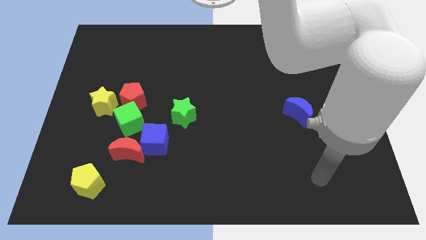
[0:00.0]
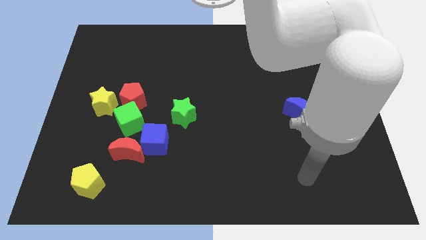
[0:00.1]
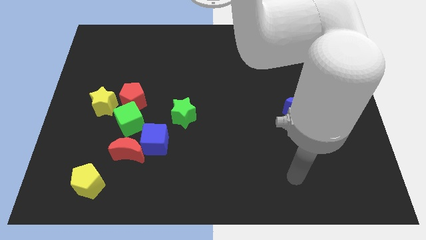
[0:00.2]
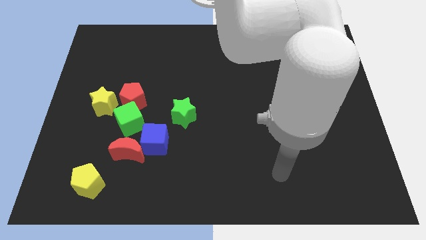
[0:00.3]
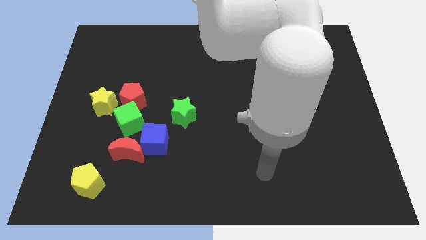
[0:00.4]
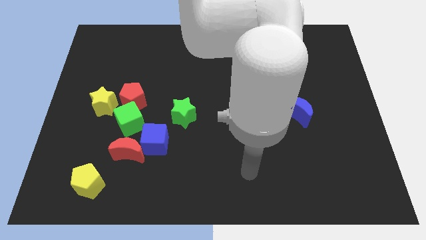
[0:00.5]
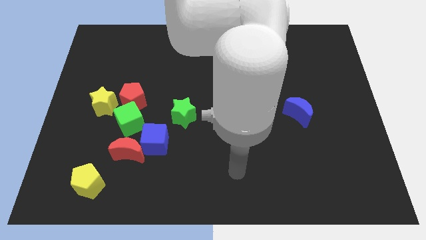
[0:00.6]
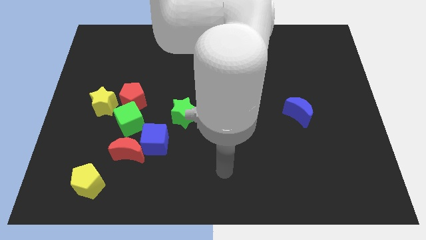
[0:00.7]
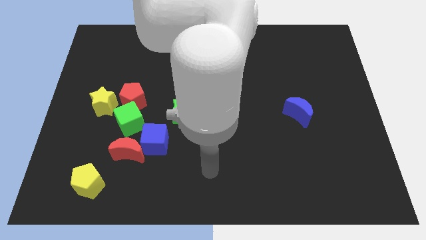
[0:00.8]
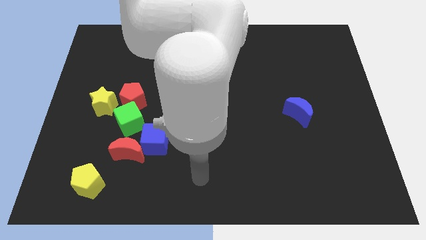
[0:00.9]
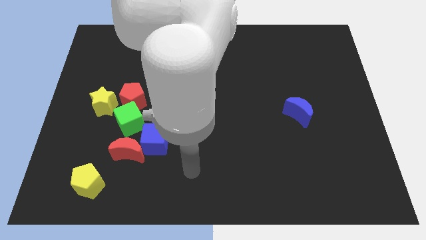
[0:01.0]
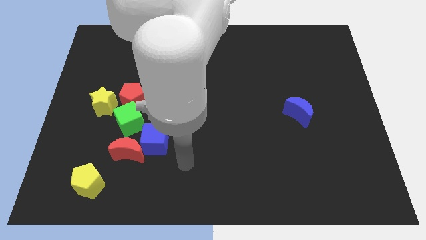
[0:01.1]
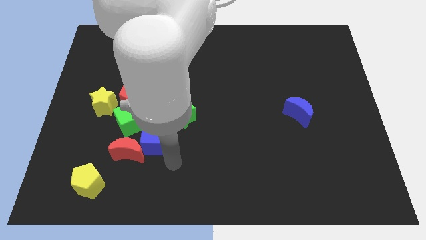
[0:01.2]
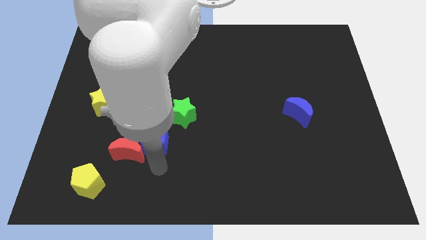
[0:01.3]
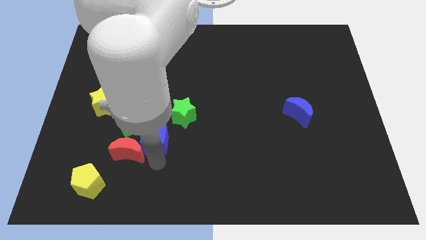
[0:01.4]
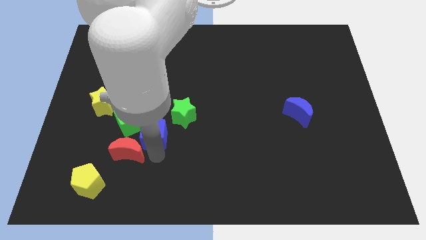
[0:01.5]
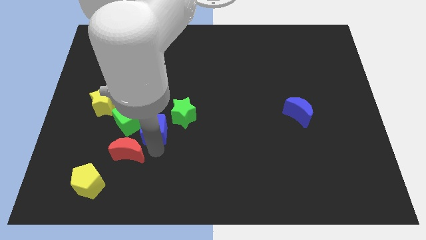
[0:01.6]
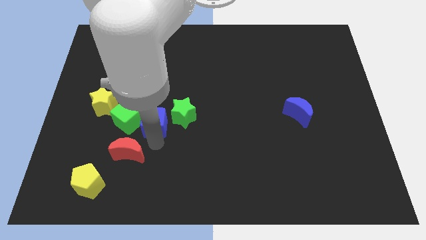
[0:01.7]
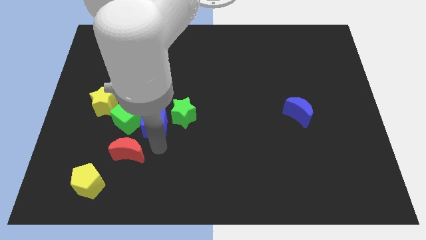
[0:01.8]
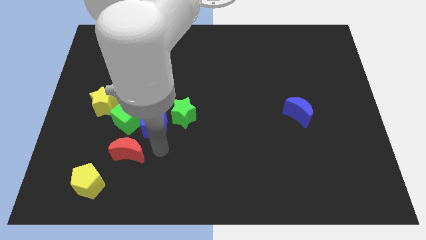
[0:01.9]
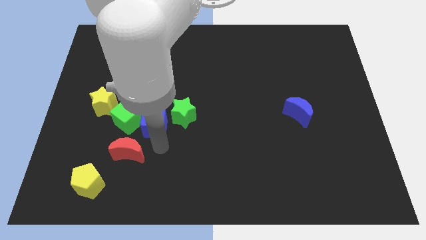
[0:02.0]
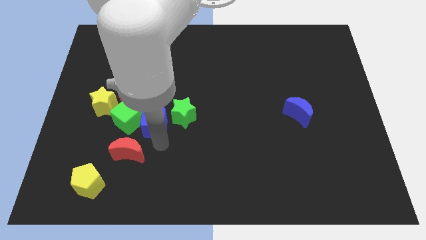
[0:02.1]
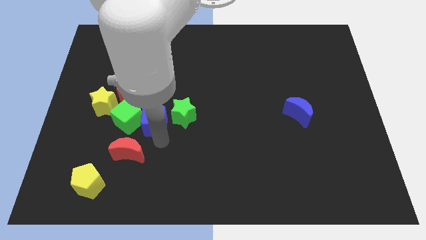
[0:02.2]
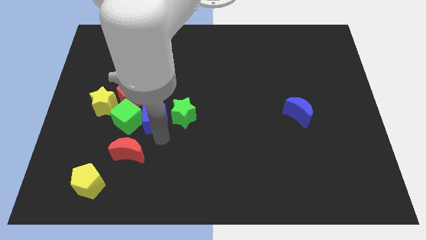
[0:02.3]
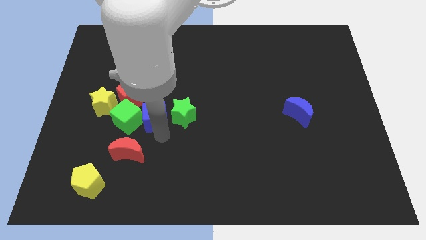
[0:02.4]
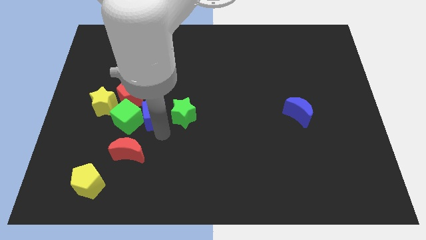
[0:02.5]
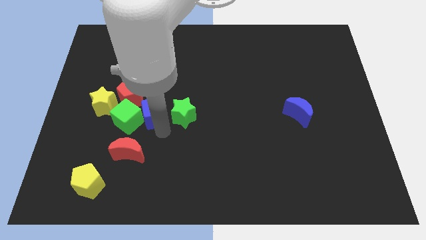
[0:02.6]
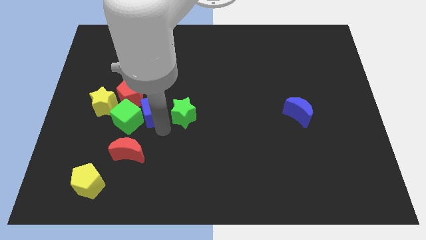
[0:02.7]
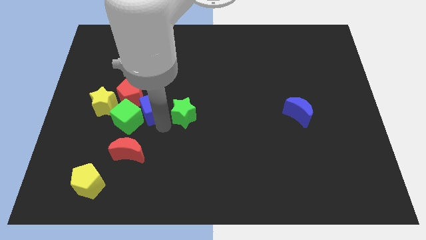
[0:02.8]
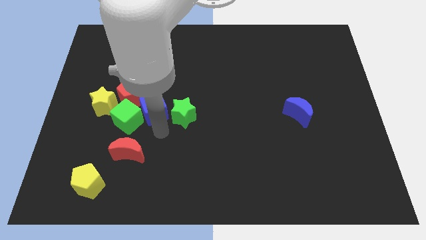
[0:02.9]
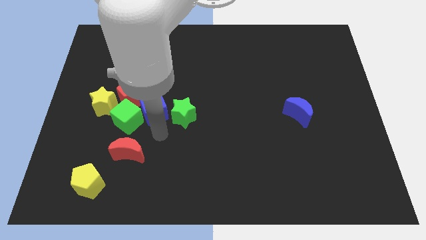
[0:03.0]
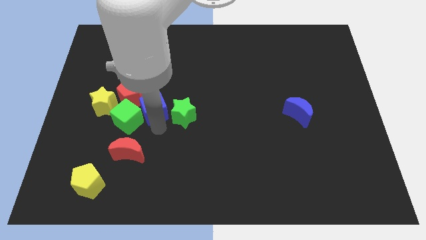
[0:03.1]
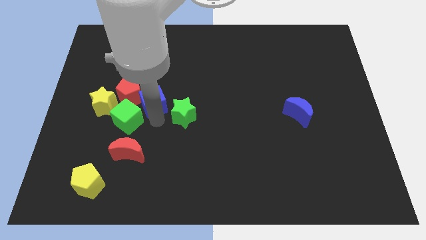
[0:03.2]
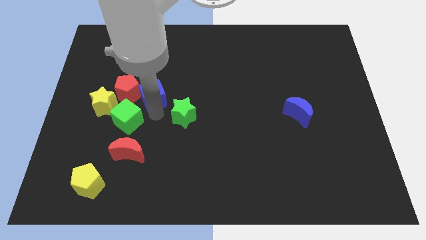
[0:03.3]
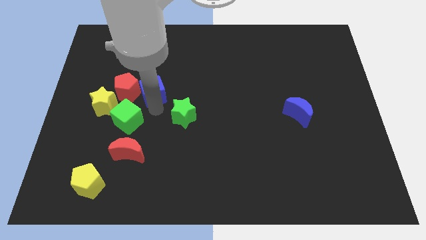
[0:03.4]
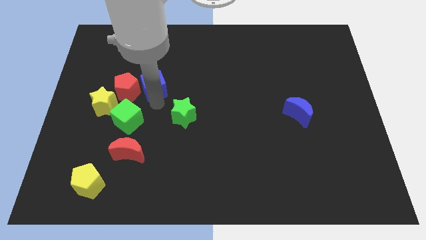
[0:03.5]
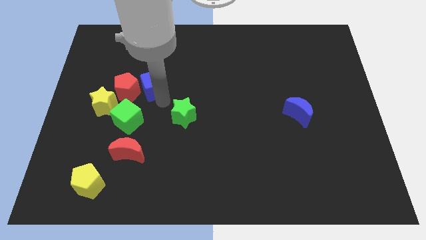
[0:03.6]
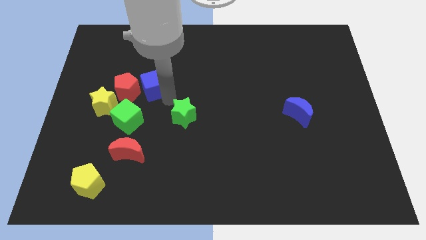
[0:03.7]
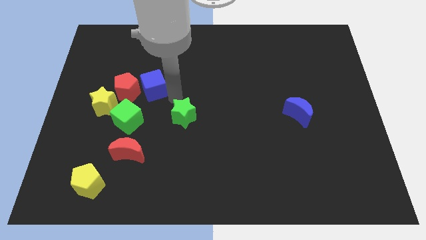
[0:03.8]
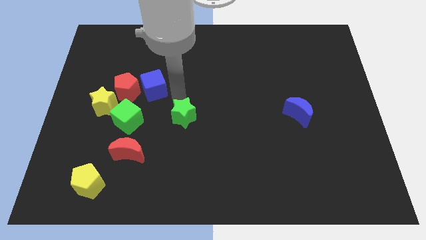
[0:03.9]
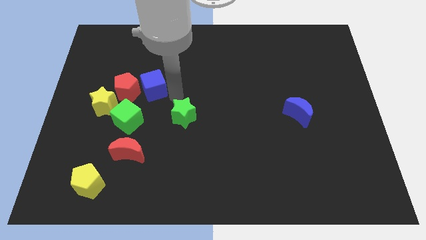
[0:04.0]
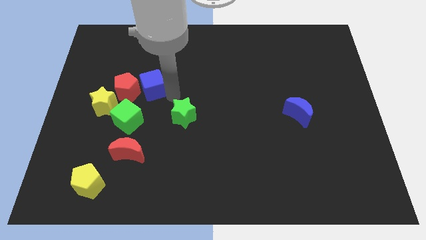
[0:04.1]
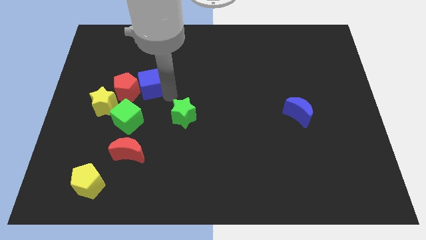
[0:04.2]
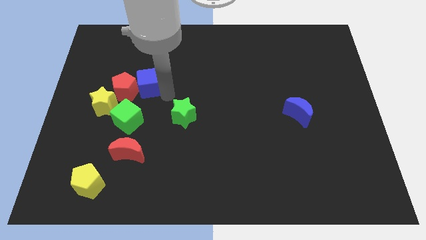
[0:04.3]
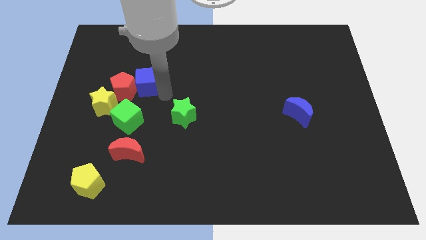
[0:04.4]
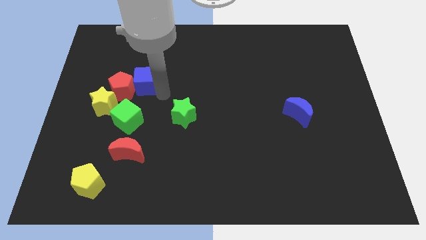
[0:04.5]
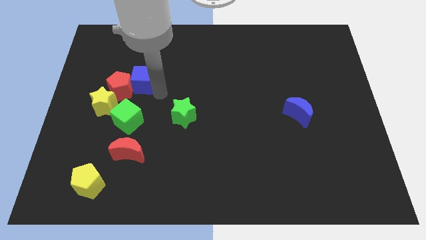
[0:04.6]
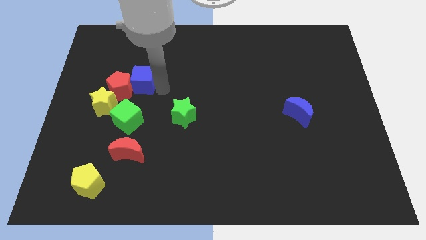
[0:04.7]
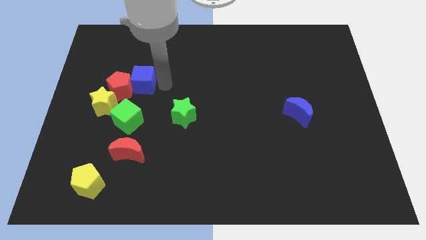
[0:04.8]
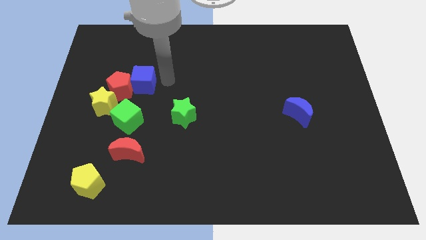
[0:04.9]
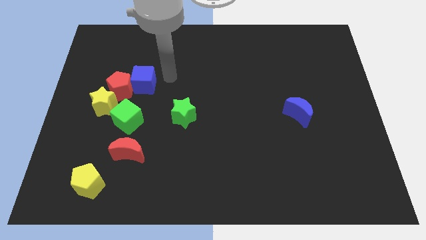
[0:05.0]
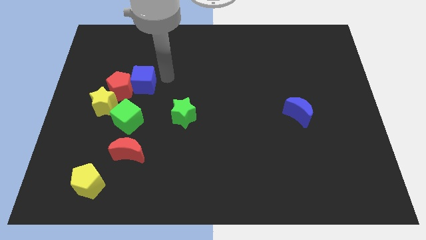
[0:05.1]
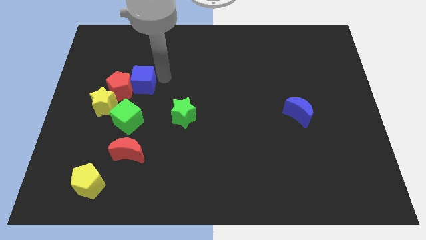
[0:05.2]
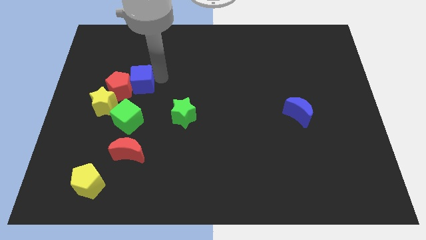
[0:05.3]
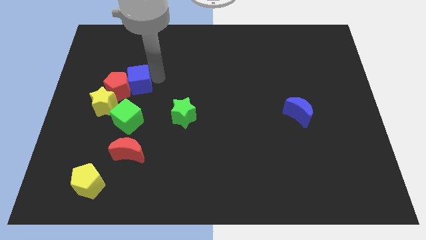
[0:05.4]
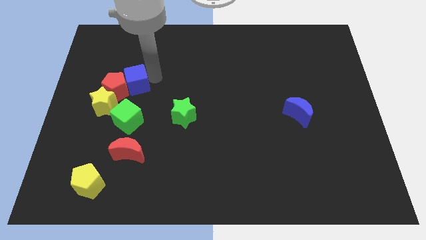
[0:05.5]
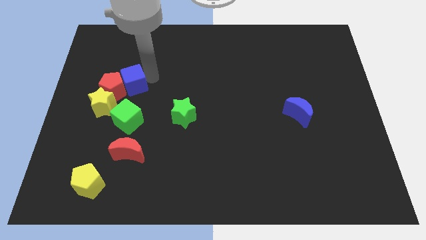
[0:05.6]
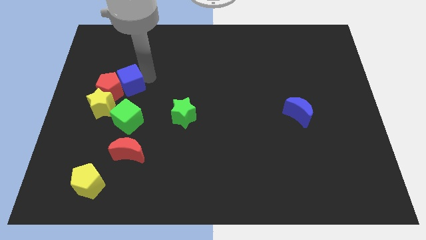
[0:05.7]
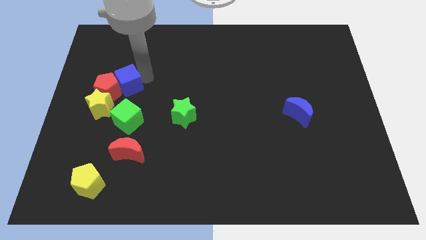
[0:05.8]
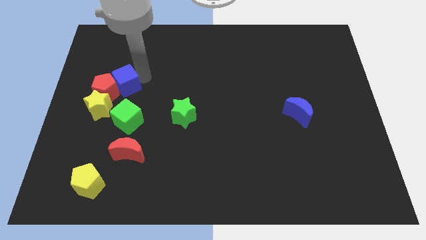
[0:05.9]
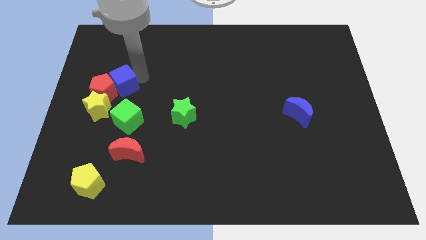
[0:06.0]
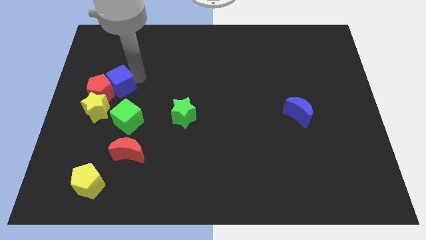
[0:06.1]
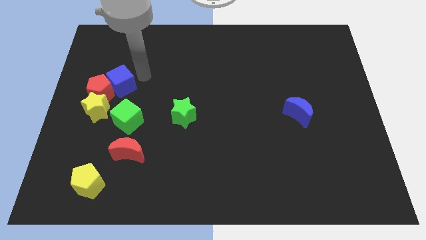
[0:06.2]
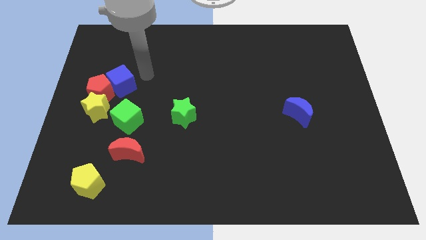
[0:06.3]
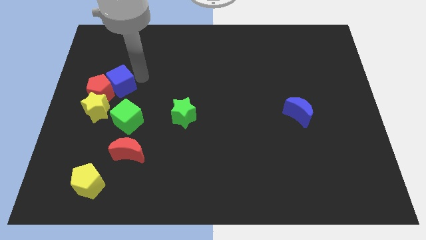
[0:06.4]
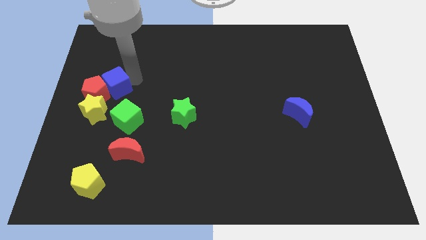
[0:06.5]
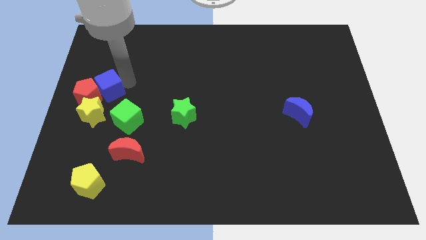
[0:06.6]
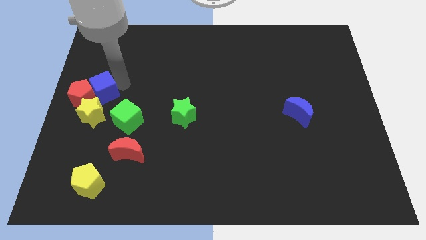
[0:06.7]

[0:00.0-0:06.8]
push the blue cube to the left side
